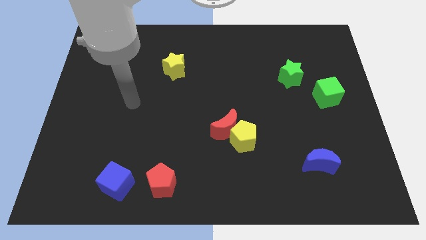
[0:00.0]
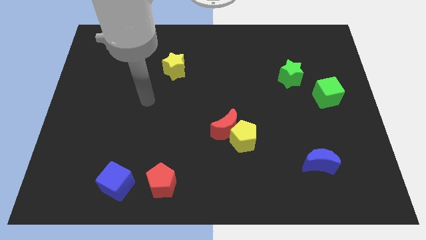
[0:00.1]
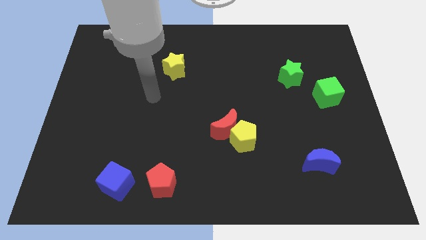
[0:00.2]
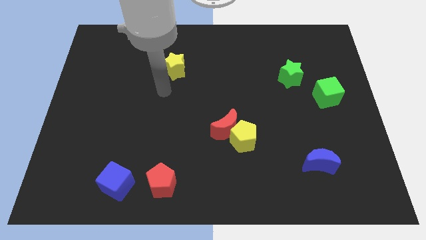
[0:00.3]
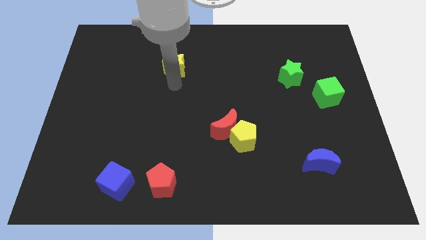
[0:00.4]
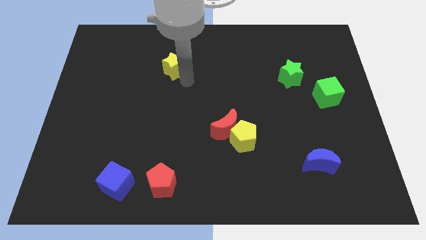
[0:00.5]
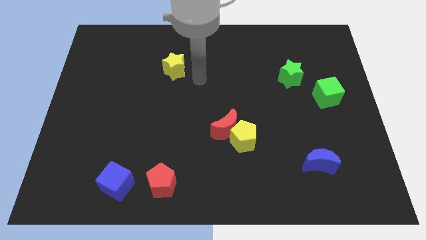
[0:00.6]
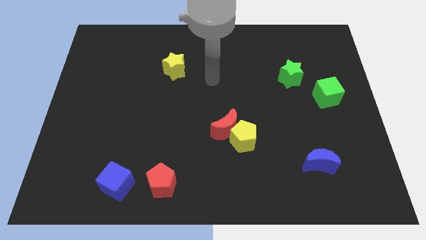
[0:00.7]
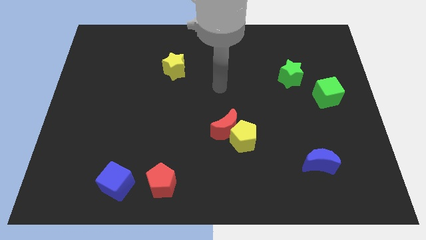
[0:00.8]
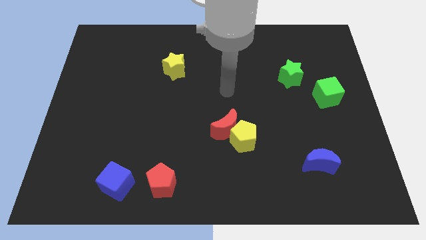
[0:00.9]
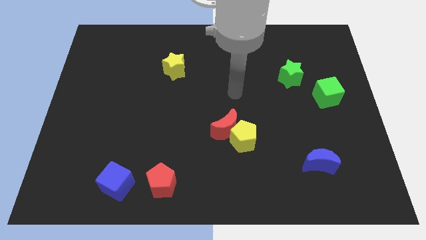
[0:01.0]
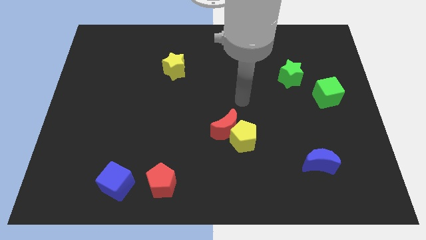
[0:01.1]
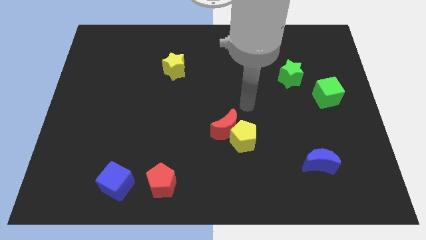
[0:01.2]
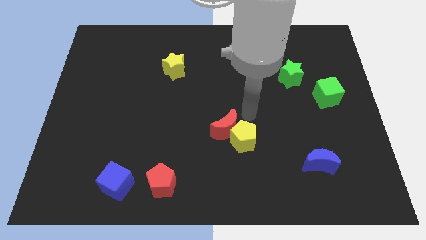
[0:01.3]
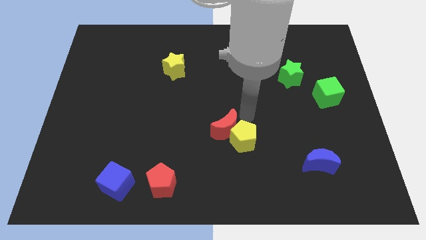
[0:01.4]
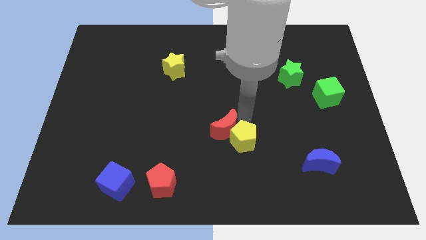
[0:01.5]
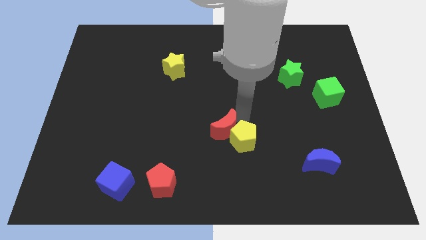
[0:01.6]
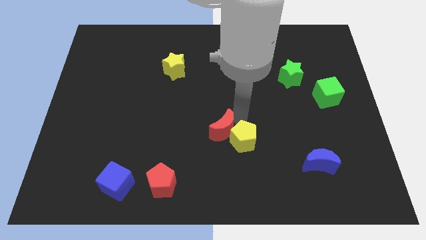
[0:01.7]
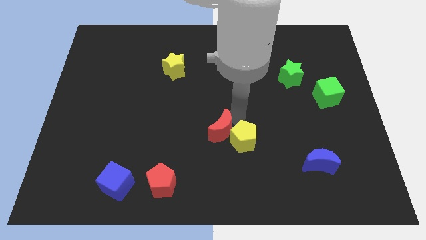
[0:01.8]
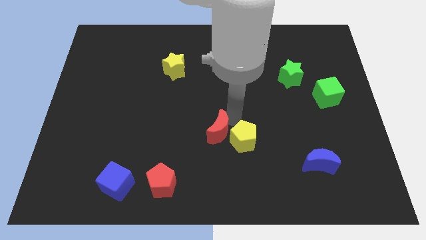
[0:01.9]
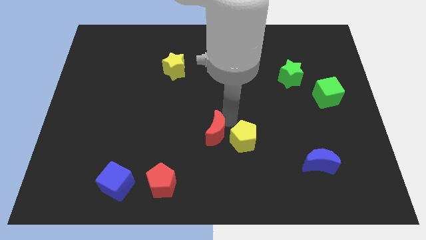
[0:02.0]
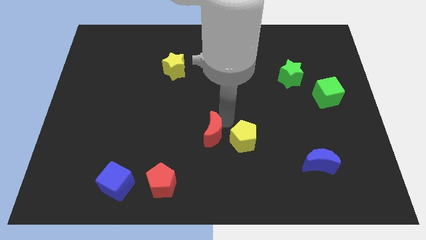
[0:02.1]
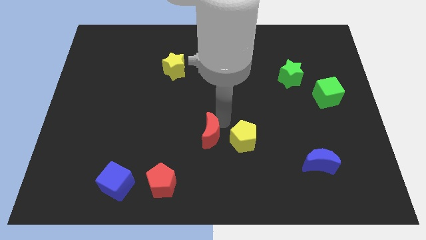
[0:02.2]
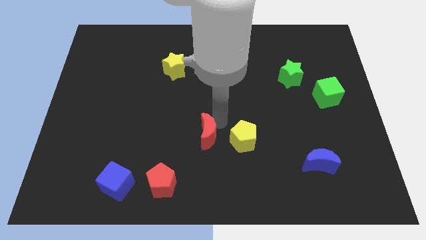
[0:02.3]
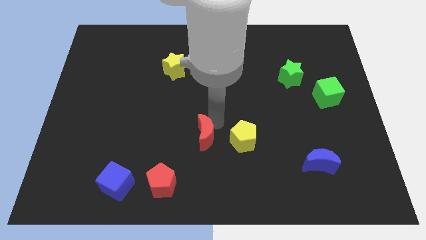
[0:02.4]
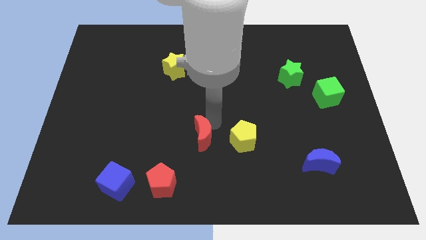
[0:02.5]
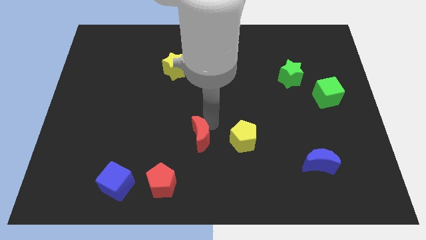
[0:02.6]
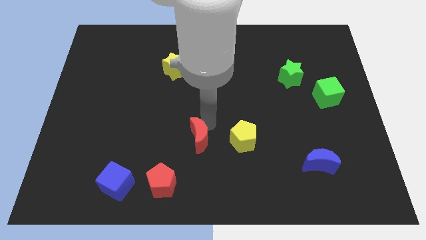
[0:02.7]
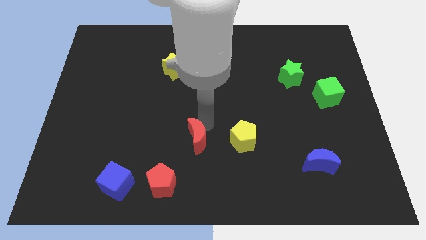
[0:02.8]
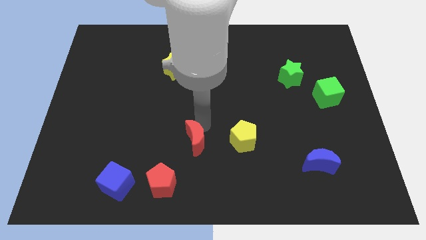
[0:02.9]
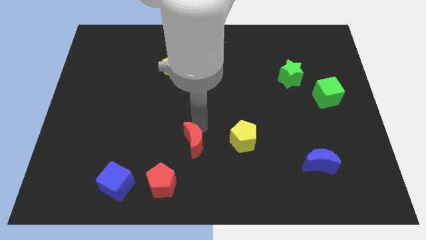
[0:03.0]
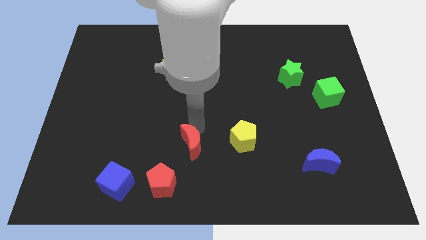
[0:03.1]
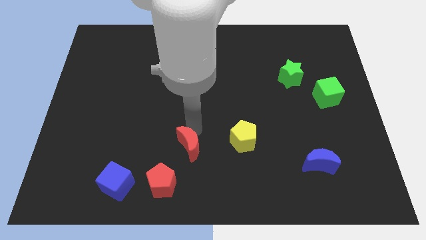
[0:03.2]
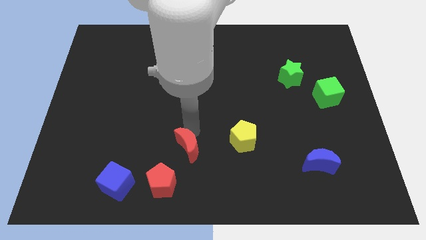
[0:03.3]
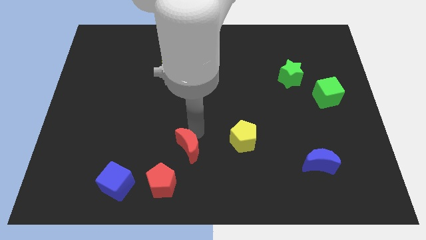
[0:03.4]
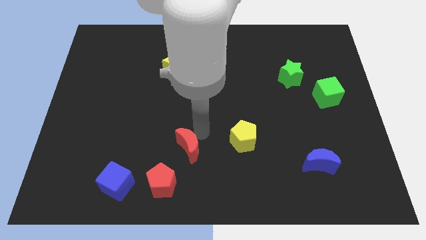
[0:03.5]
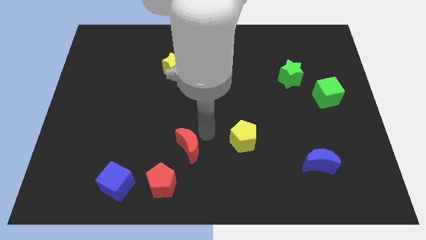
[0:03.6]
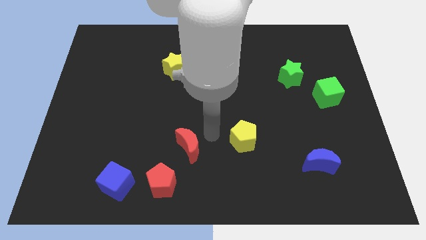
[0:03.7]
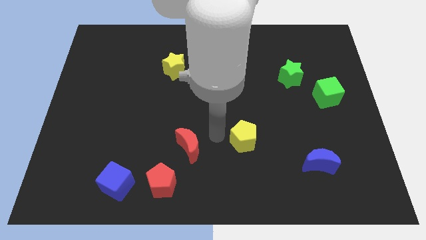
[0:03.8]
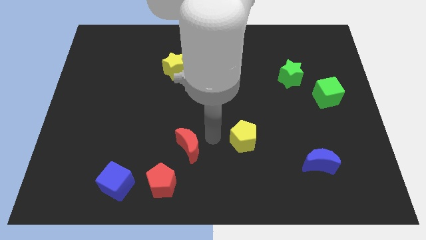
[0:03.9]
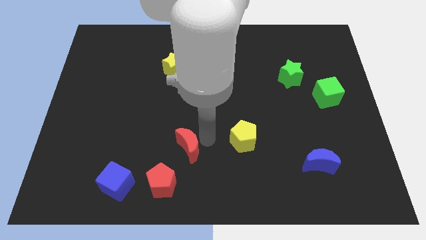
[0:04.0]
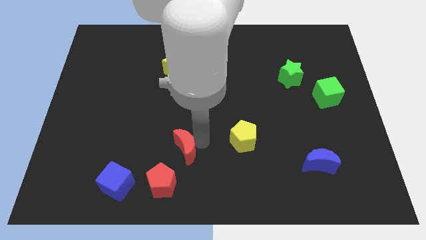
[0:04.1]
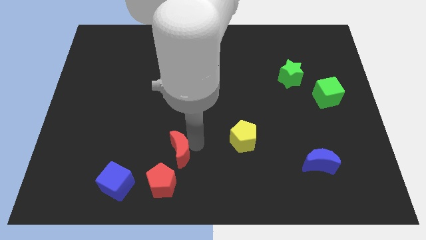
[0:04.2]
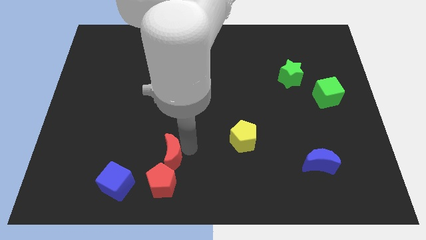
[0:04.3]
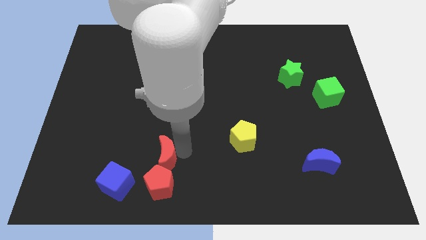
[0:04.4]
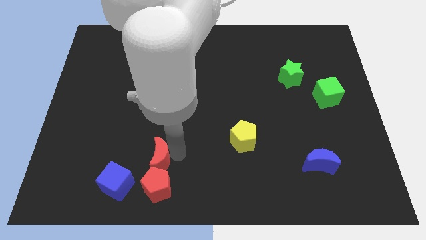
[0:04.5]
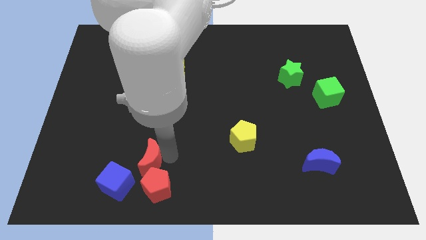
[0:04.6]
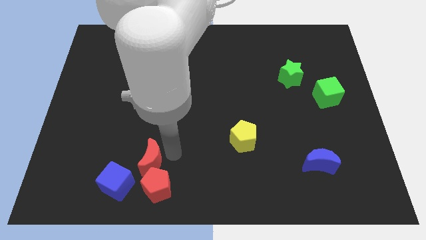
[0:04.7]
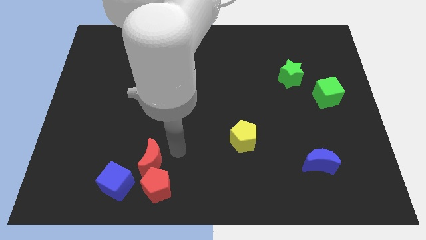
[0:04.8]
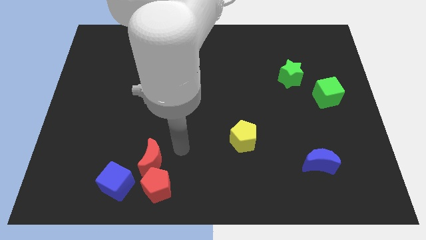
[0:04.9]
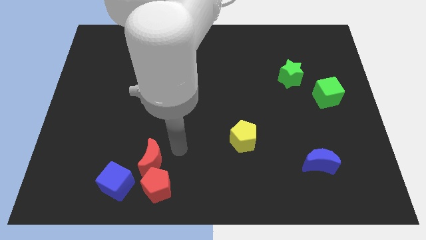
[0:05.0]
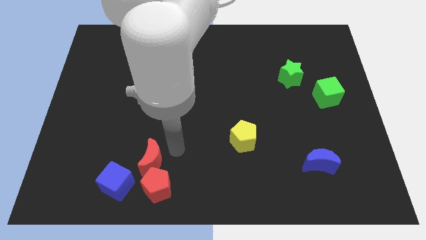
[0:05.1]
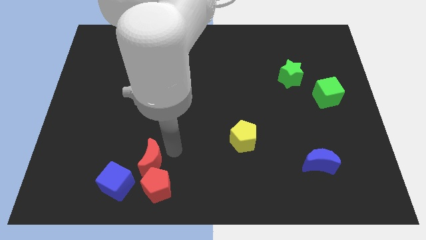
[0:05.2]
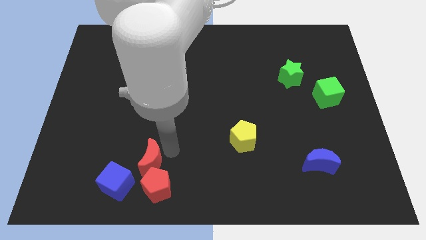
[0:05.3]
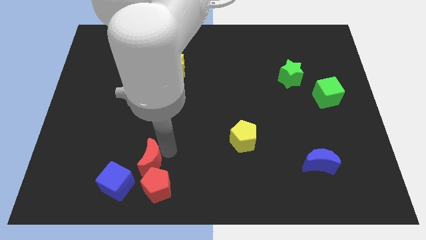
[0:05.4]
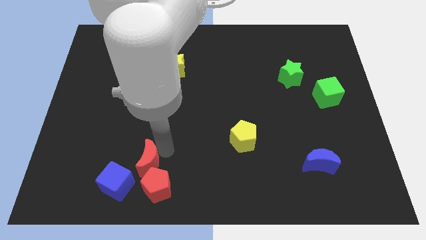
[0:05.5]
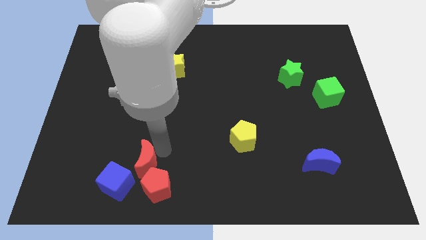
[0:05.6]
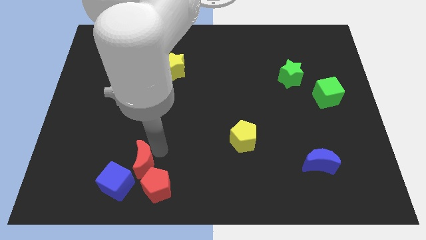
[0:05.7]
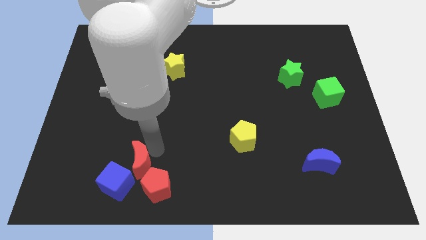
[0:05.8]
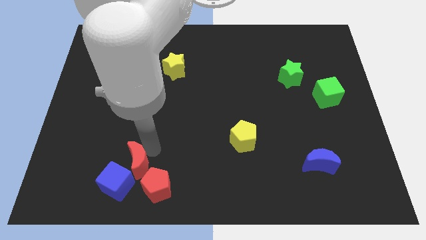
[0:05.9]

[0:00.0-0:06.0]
move the red moon towards the blue cube

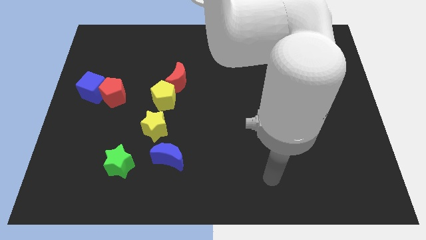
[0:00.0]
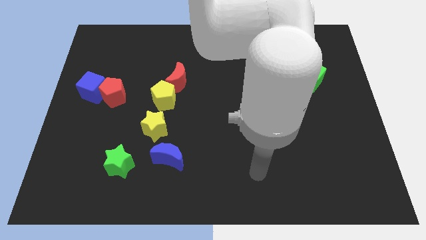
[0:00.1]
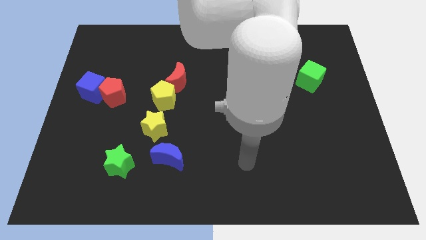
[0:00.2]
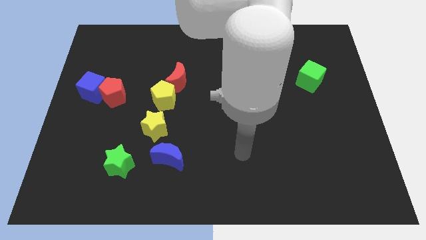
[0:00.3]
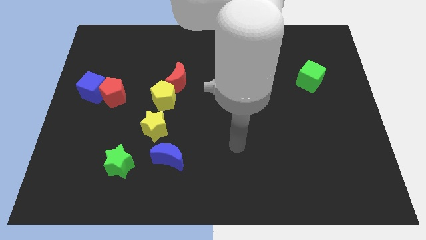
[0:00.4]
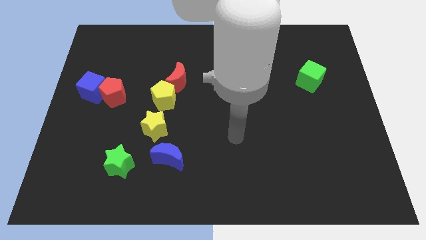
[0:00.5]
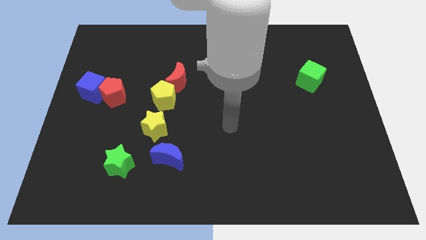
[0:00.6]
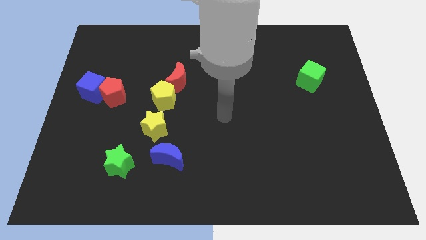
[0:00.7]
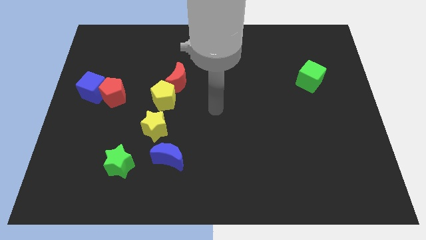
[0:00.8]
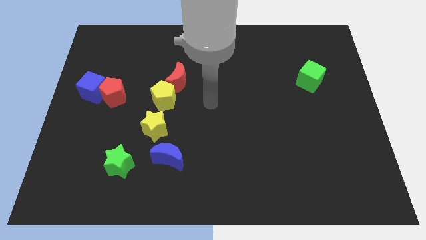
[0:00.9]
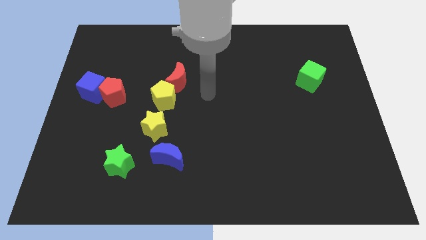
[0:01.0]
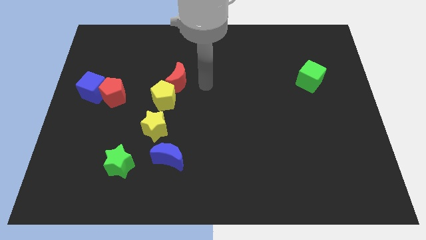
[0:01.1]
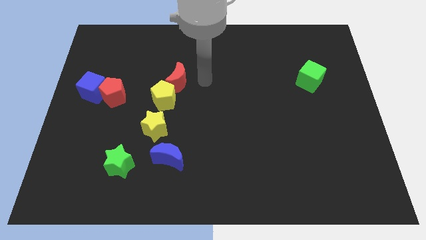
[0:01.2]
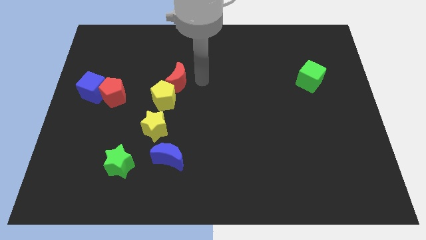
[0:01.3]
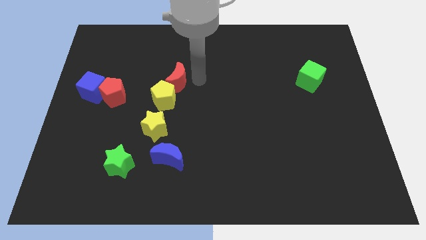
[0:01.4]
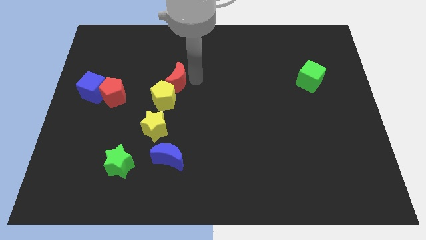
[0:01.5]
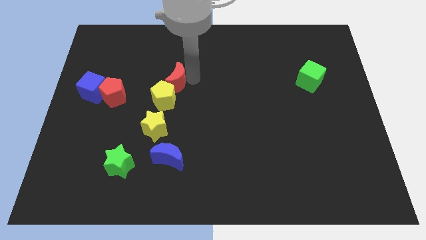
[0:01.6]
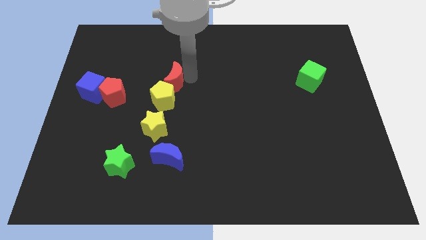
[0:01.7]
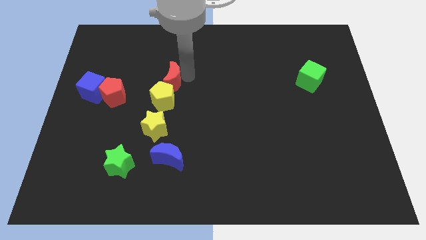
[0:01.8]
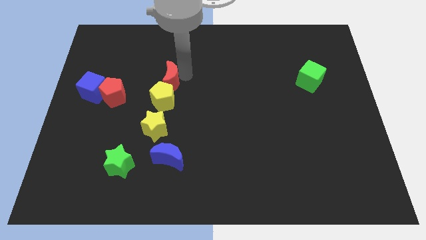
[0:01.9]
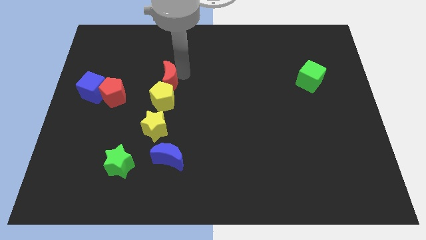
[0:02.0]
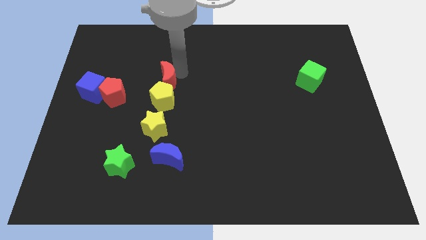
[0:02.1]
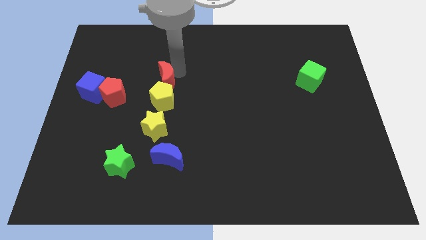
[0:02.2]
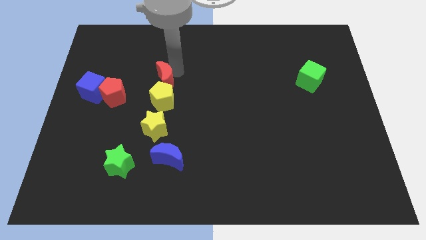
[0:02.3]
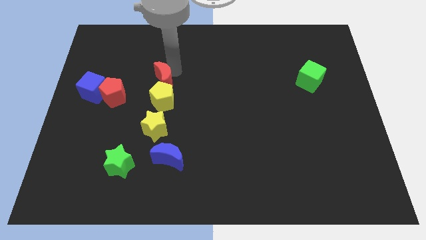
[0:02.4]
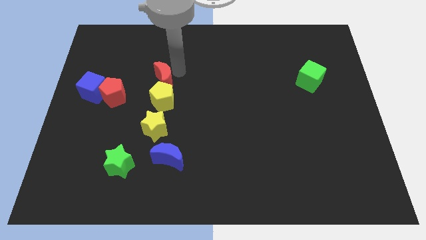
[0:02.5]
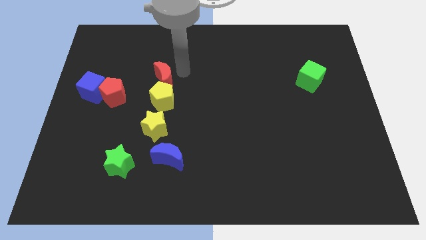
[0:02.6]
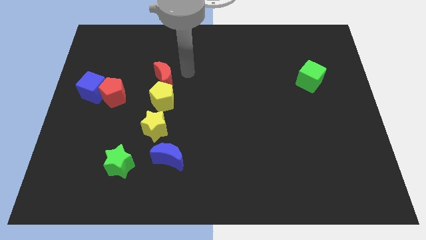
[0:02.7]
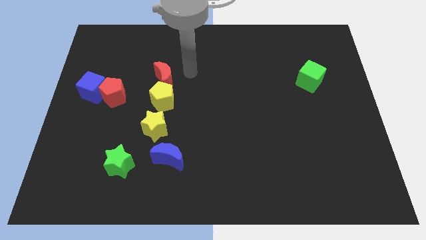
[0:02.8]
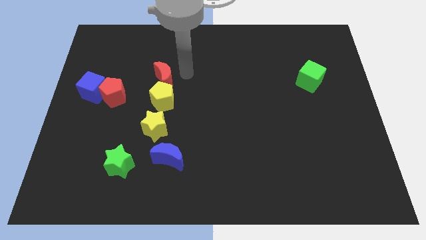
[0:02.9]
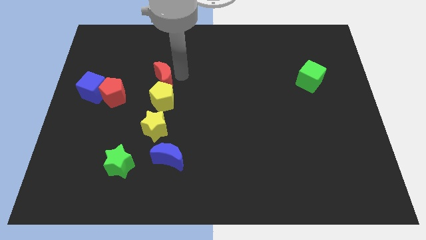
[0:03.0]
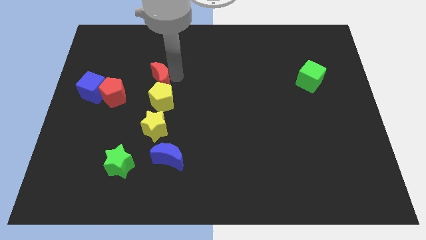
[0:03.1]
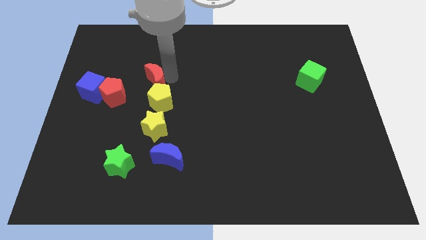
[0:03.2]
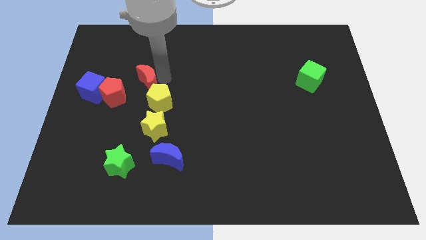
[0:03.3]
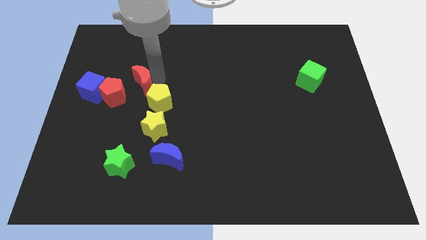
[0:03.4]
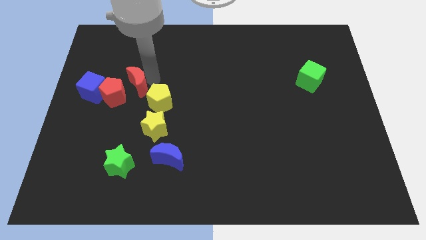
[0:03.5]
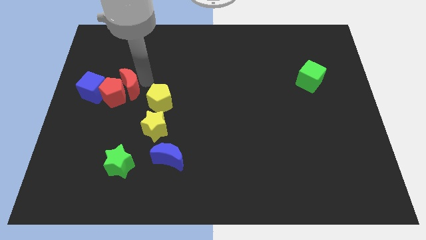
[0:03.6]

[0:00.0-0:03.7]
slide the red moon towards the red pentagon
